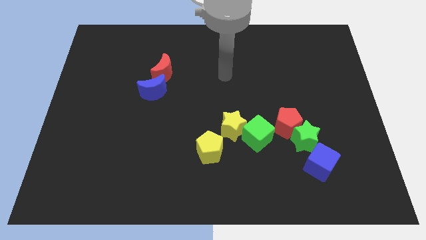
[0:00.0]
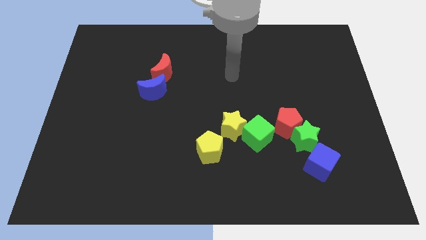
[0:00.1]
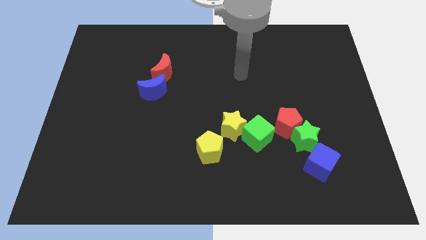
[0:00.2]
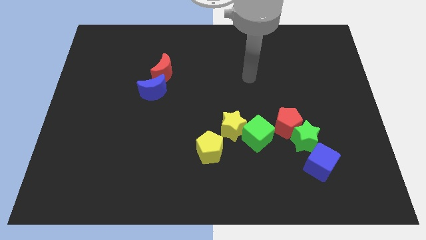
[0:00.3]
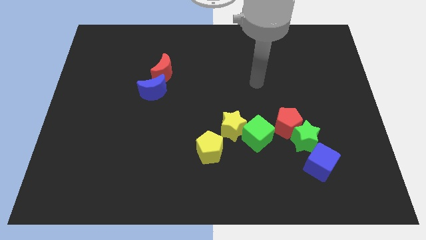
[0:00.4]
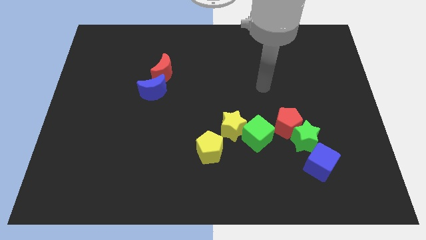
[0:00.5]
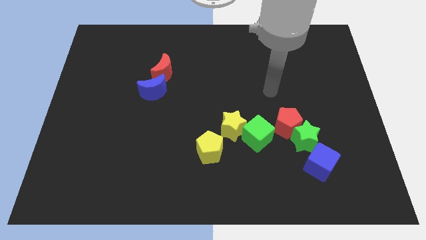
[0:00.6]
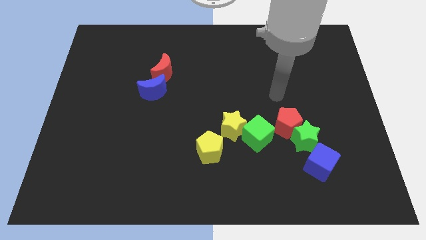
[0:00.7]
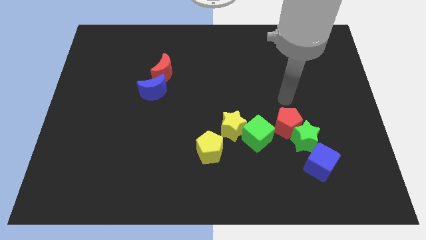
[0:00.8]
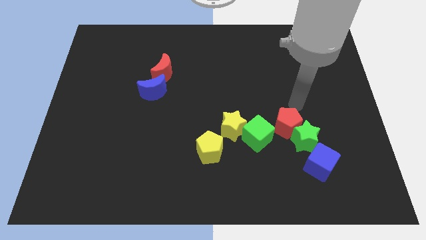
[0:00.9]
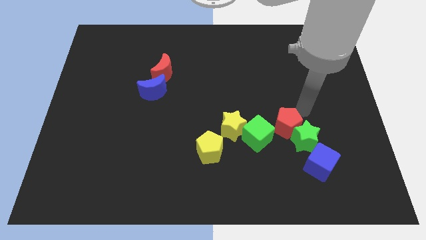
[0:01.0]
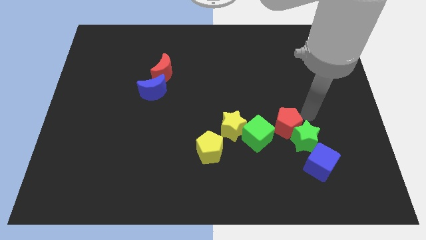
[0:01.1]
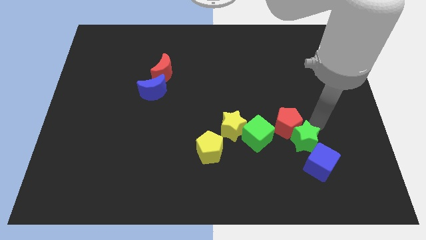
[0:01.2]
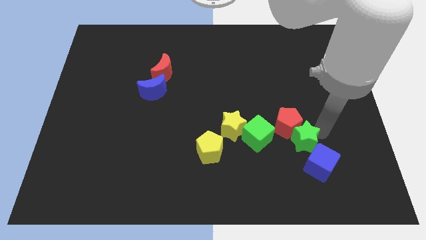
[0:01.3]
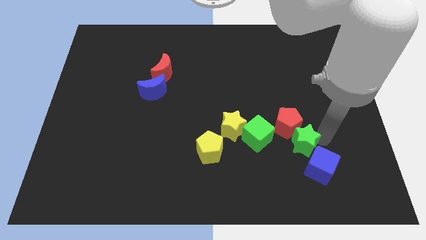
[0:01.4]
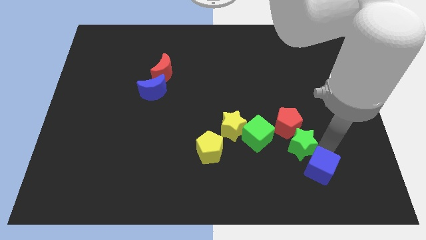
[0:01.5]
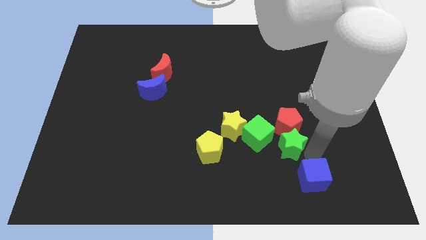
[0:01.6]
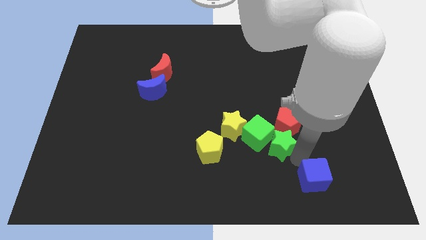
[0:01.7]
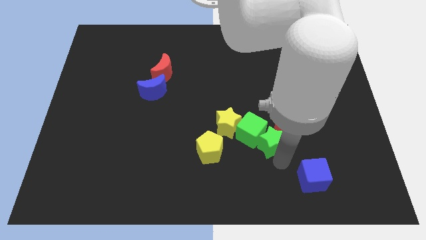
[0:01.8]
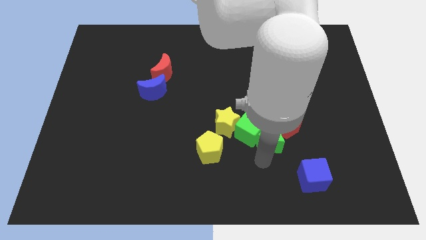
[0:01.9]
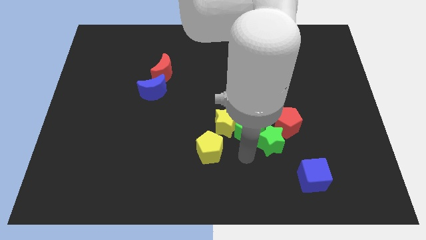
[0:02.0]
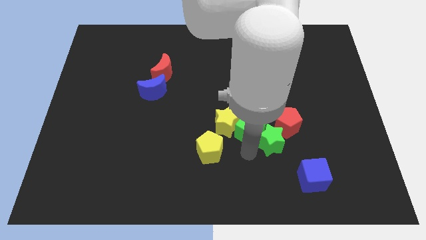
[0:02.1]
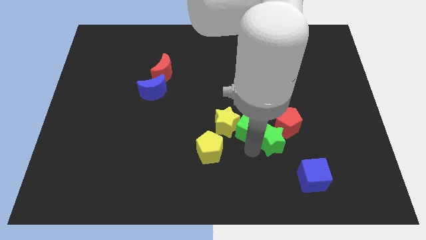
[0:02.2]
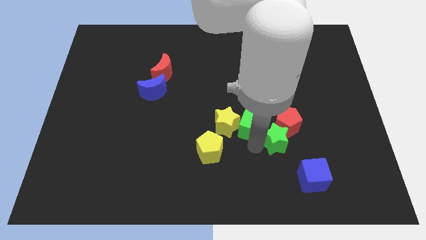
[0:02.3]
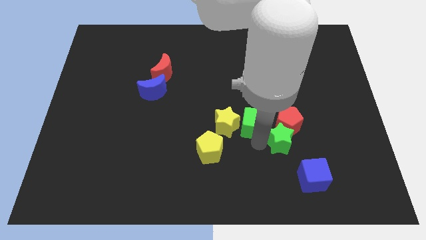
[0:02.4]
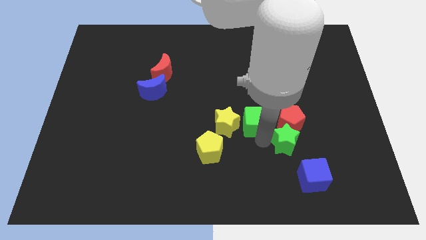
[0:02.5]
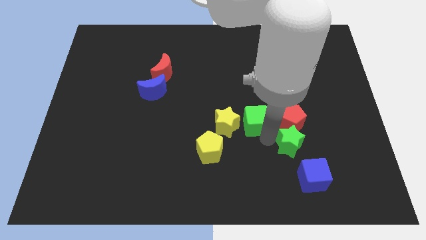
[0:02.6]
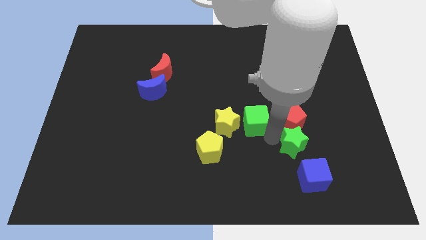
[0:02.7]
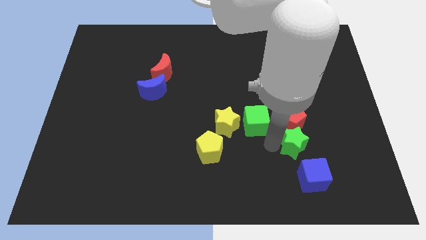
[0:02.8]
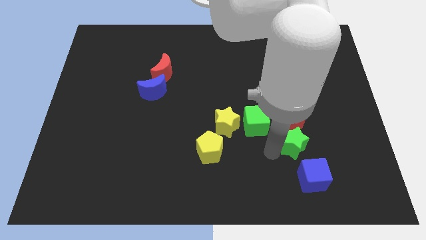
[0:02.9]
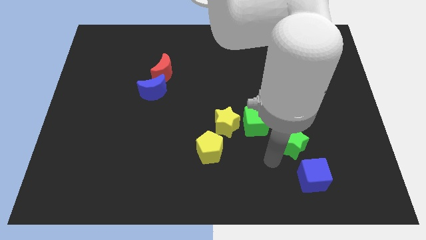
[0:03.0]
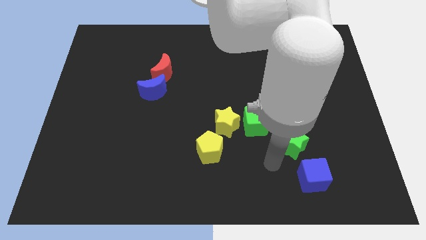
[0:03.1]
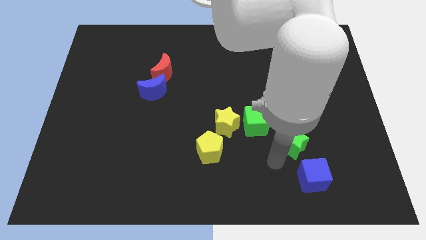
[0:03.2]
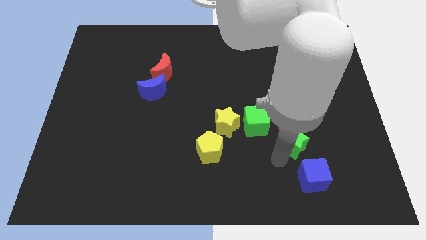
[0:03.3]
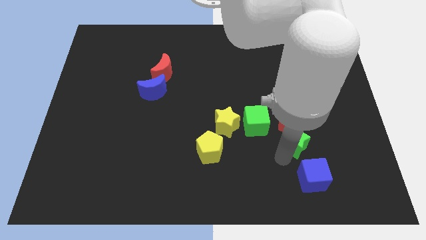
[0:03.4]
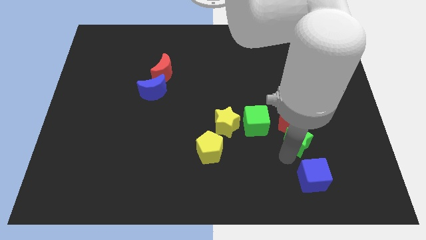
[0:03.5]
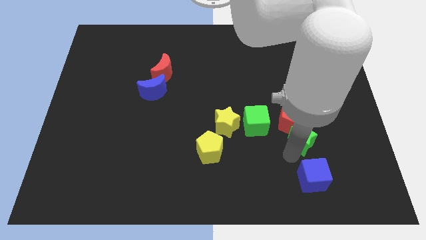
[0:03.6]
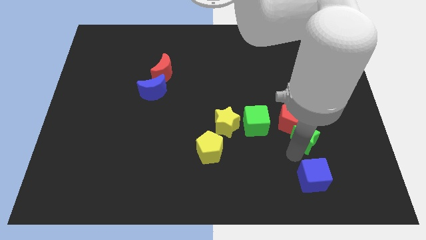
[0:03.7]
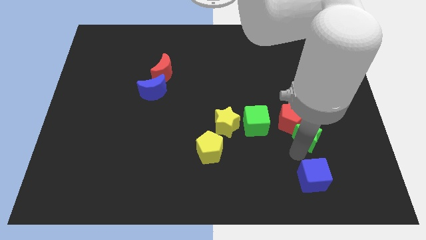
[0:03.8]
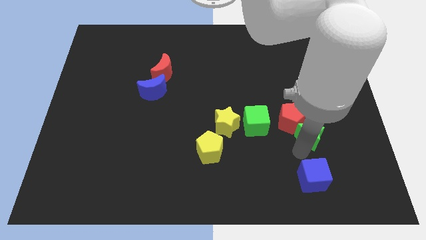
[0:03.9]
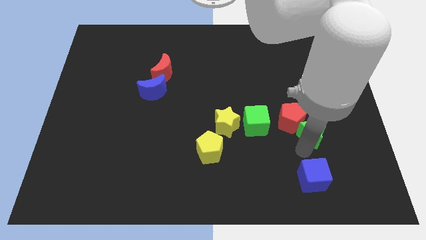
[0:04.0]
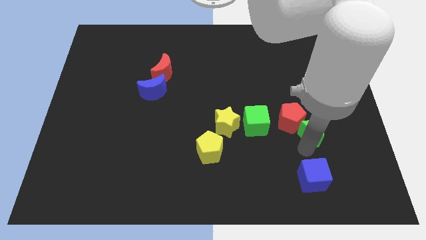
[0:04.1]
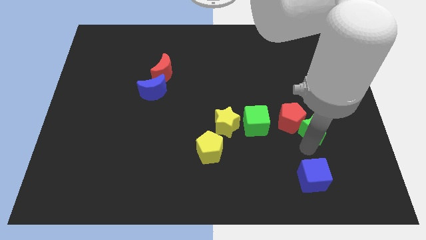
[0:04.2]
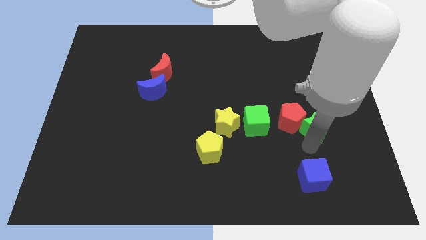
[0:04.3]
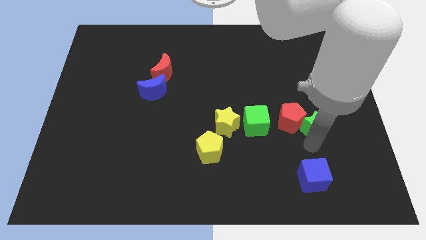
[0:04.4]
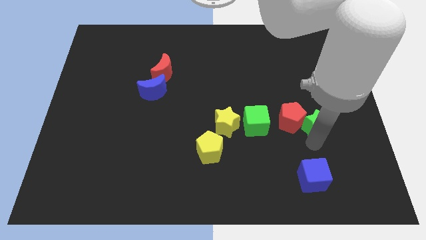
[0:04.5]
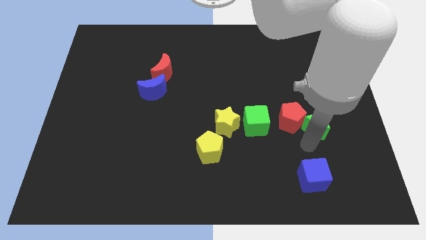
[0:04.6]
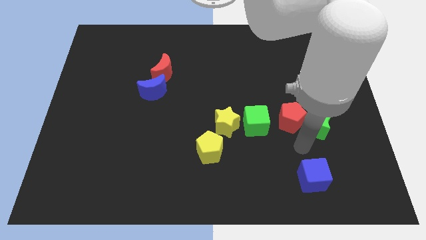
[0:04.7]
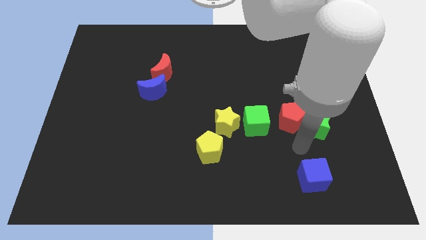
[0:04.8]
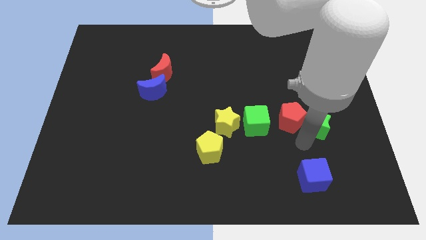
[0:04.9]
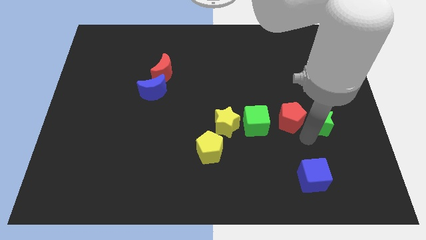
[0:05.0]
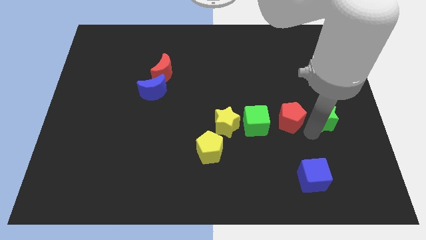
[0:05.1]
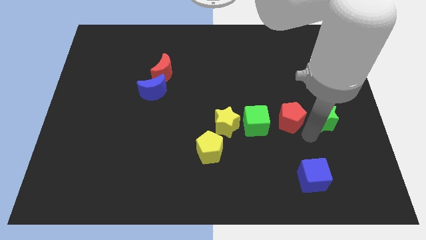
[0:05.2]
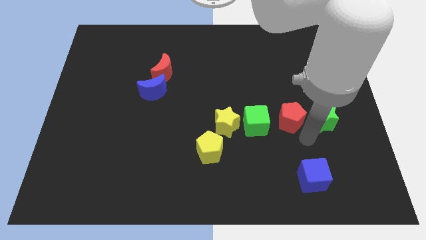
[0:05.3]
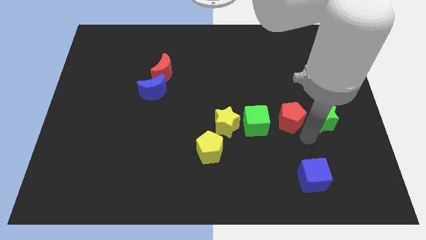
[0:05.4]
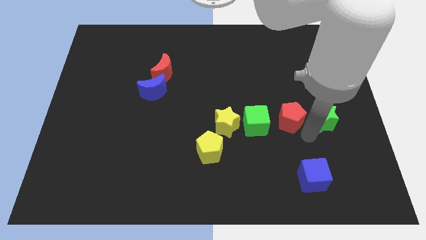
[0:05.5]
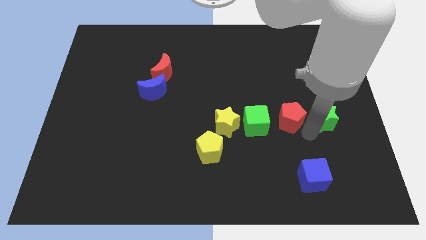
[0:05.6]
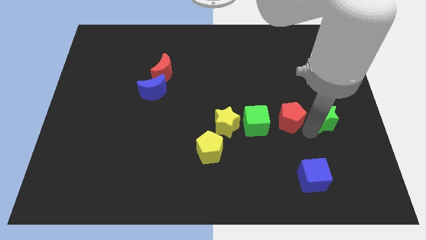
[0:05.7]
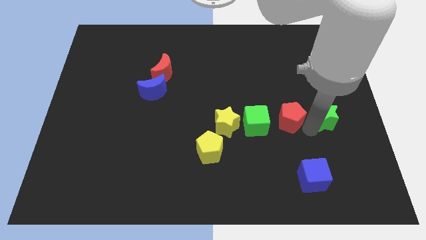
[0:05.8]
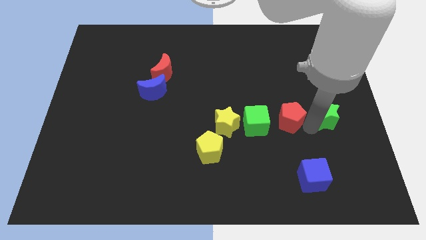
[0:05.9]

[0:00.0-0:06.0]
separate the green star from the red pentagon and blue cube

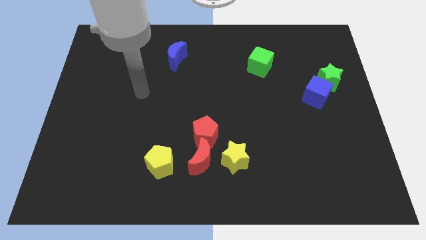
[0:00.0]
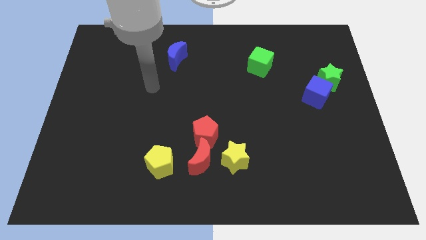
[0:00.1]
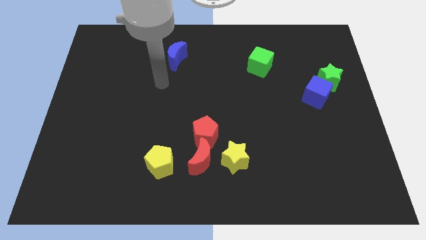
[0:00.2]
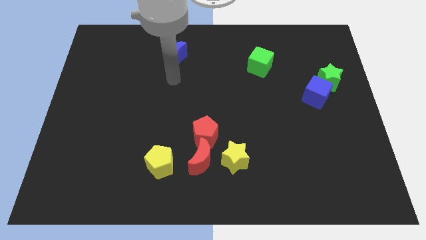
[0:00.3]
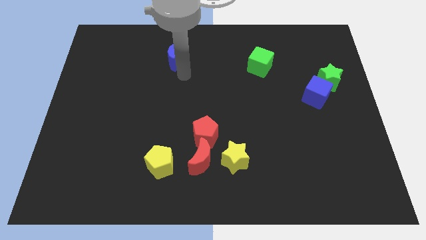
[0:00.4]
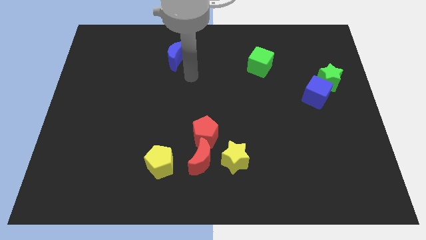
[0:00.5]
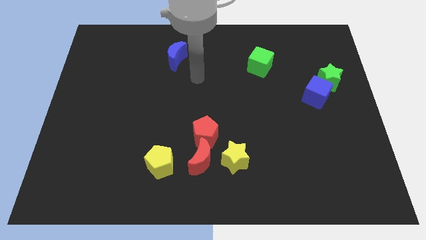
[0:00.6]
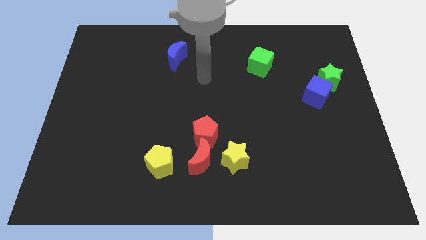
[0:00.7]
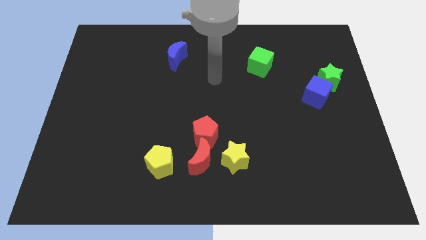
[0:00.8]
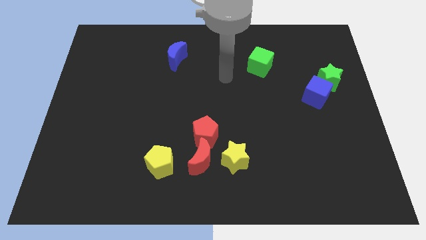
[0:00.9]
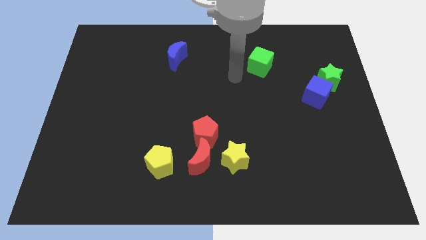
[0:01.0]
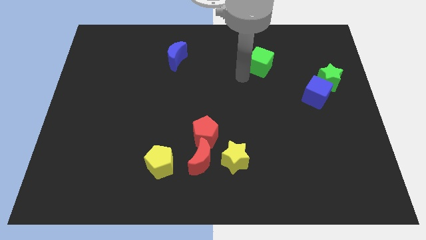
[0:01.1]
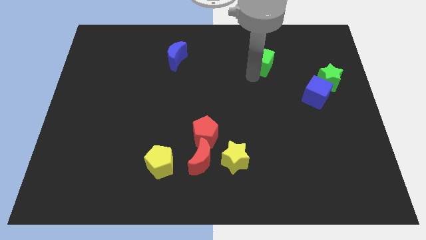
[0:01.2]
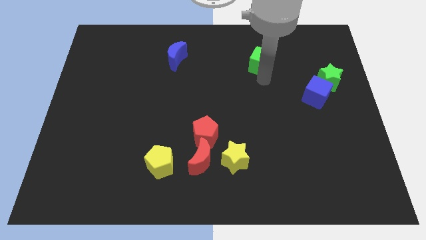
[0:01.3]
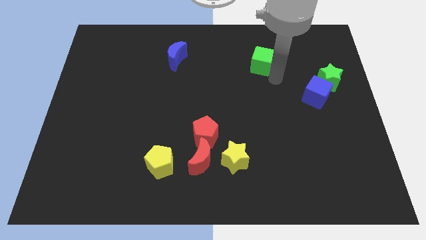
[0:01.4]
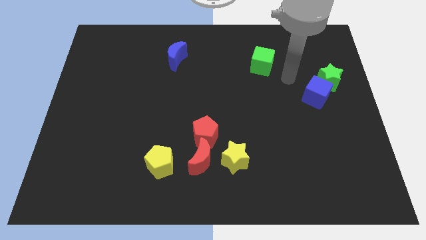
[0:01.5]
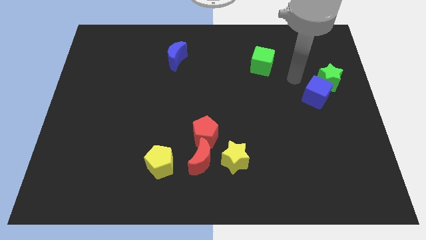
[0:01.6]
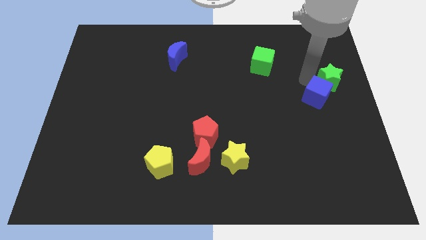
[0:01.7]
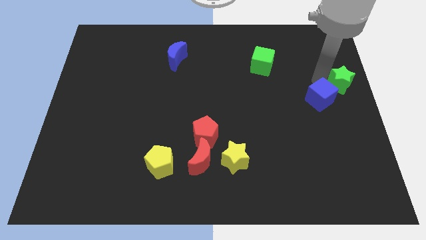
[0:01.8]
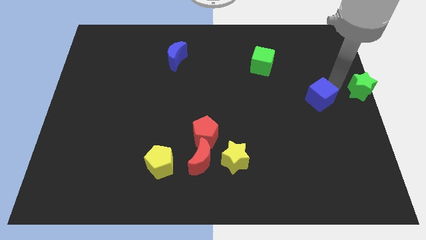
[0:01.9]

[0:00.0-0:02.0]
move the blue cube away from the green star

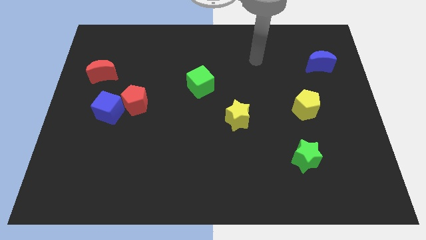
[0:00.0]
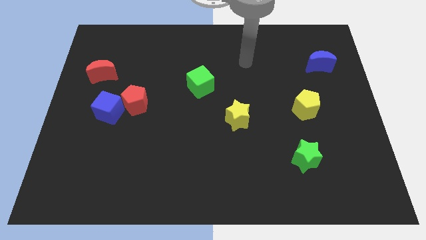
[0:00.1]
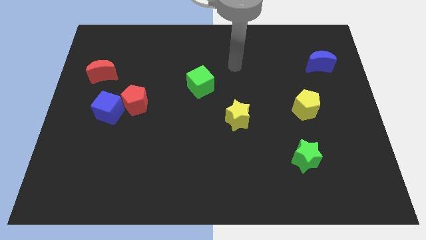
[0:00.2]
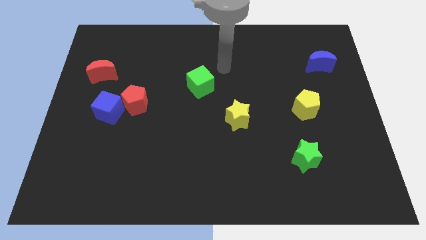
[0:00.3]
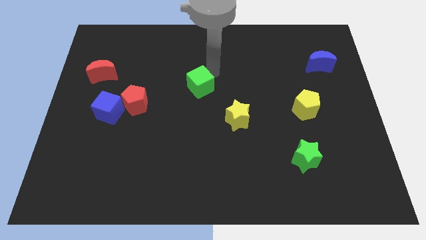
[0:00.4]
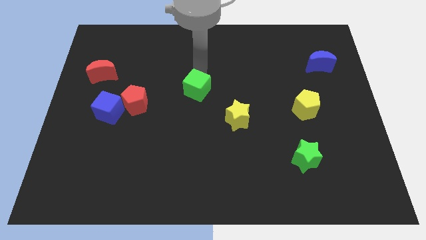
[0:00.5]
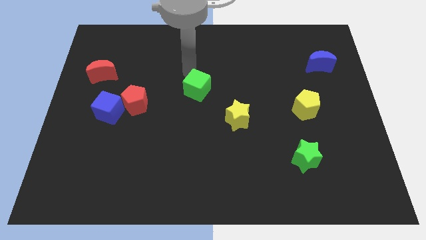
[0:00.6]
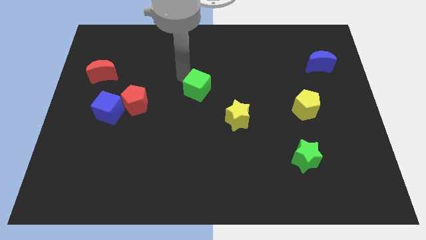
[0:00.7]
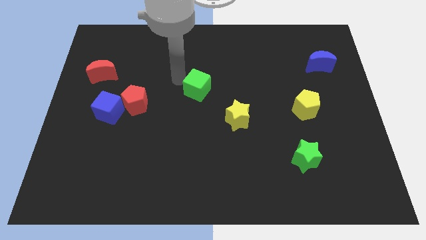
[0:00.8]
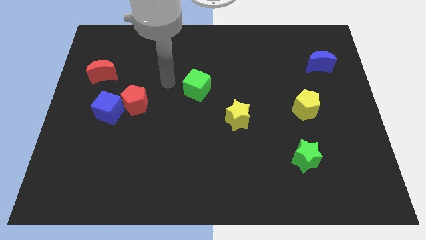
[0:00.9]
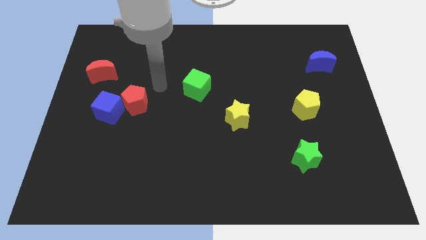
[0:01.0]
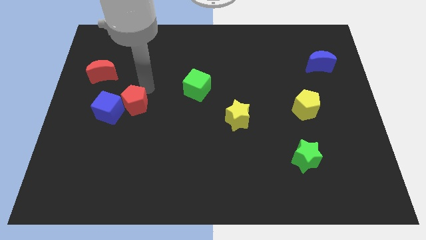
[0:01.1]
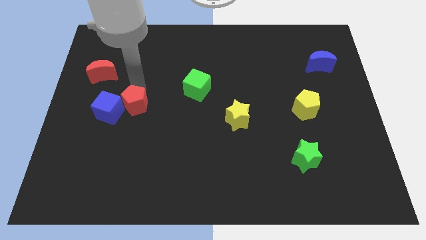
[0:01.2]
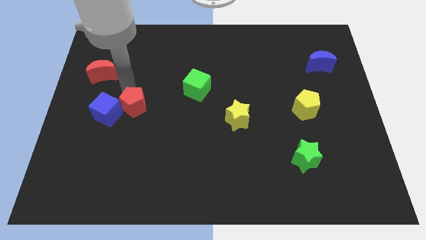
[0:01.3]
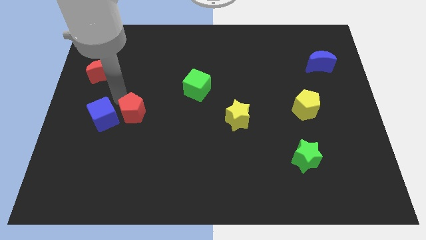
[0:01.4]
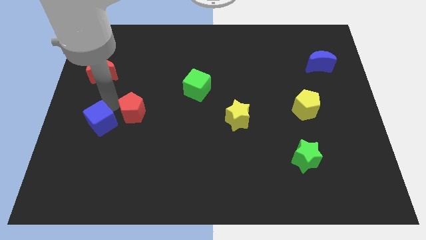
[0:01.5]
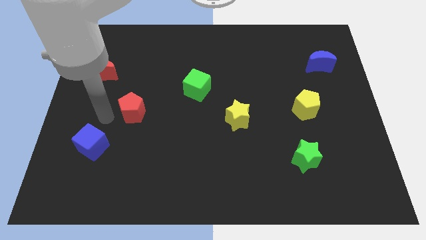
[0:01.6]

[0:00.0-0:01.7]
pull the red pentagon apart from the blue cube
